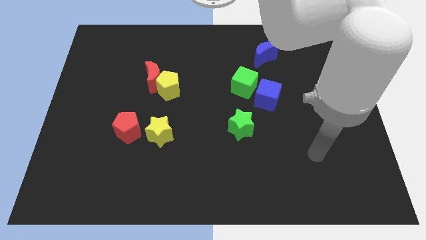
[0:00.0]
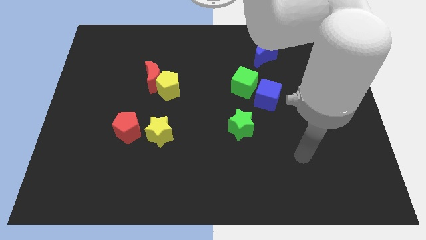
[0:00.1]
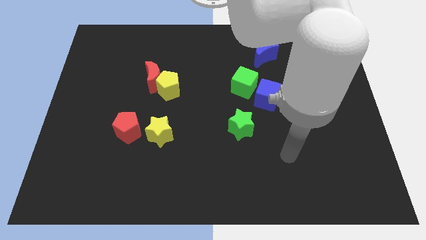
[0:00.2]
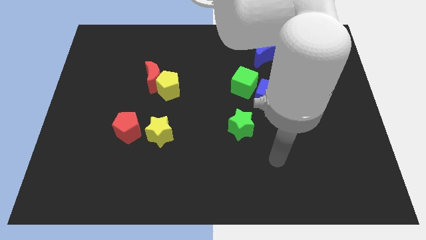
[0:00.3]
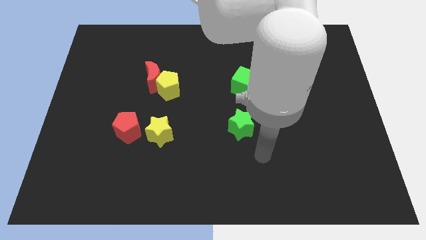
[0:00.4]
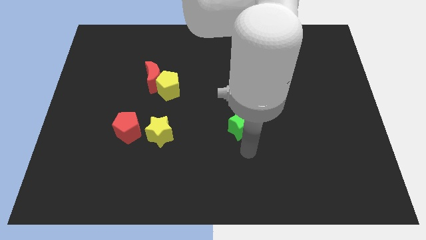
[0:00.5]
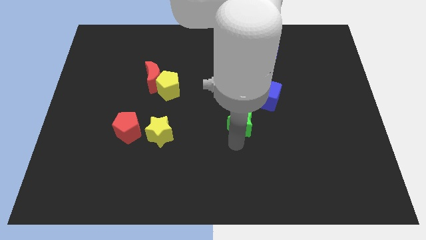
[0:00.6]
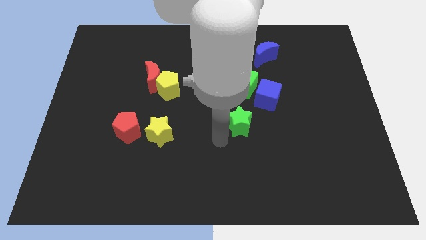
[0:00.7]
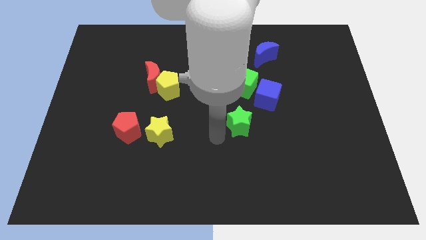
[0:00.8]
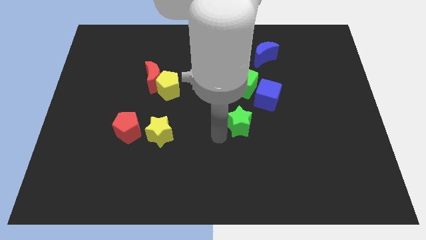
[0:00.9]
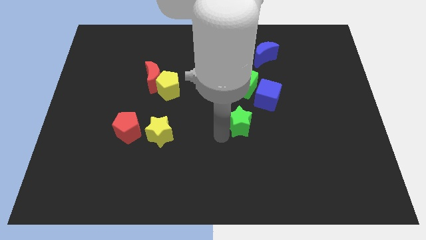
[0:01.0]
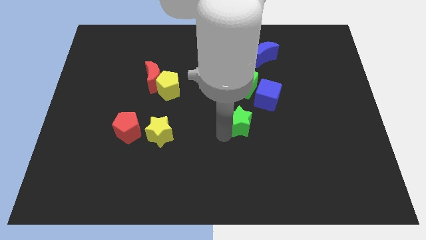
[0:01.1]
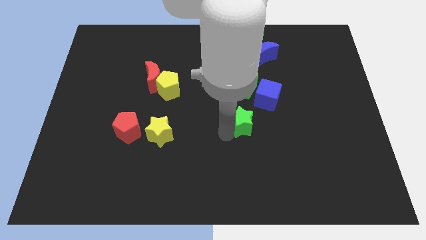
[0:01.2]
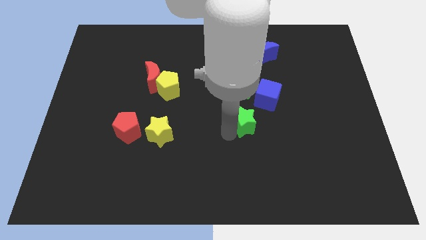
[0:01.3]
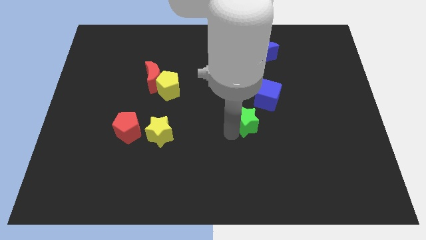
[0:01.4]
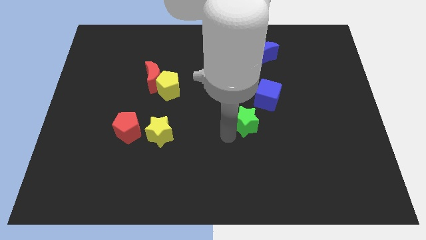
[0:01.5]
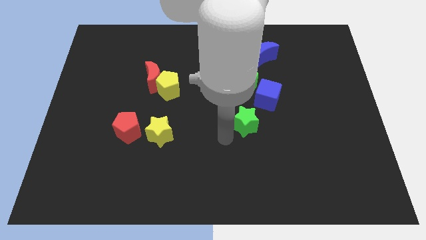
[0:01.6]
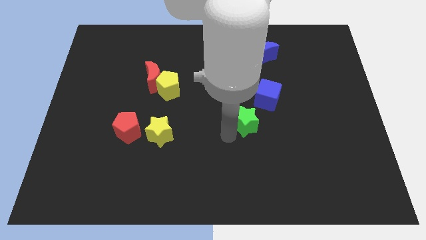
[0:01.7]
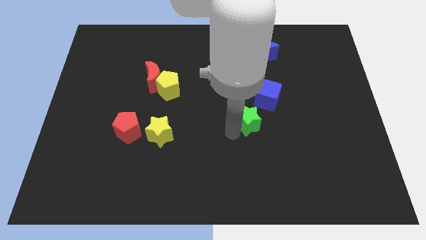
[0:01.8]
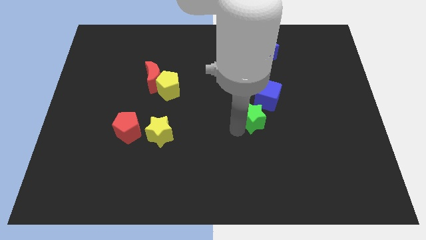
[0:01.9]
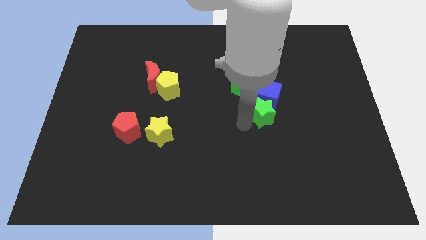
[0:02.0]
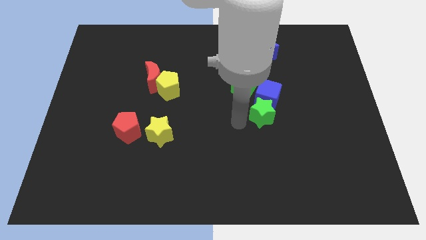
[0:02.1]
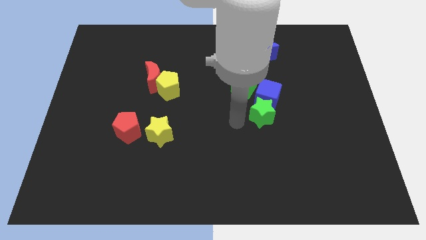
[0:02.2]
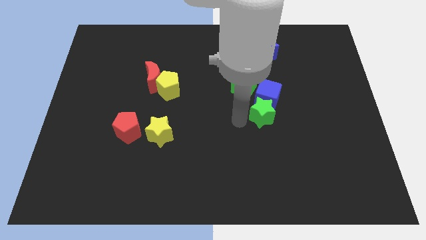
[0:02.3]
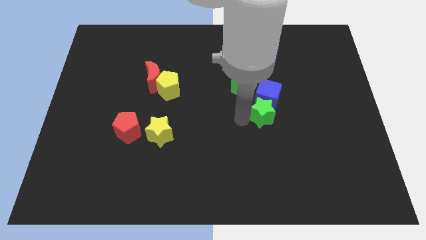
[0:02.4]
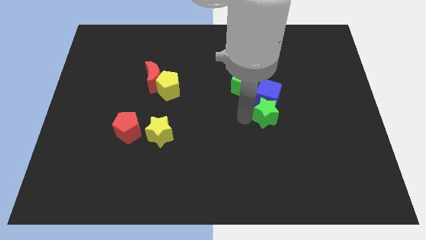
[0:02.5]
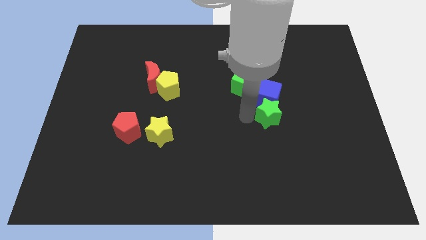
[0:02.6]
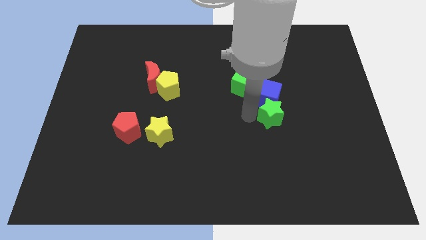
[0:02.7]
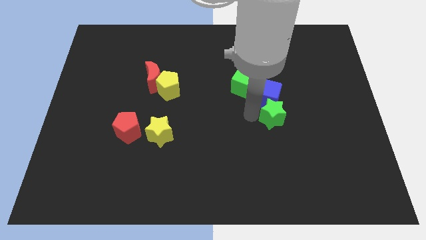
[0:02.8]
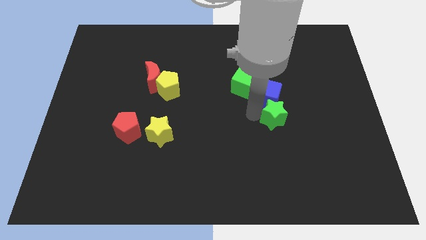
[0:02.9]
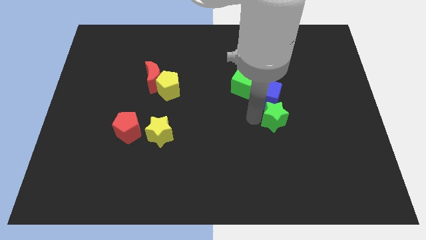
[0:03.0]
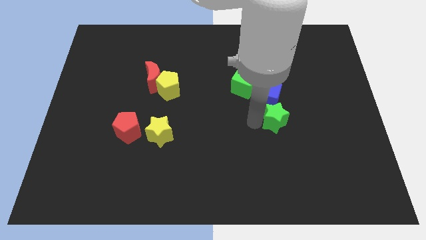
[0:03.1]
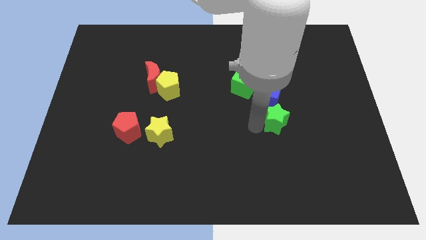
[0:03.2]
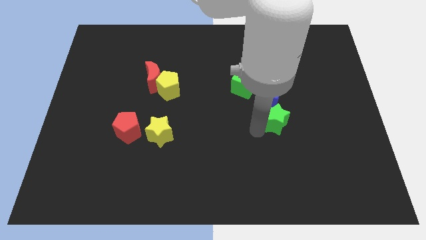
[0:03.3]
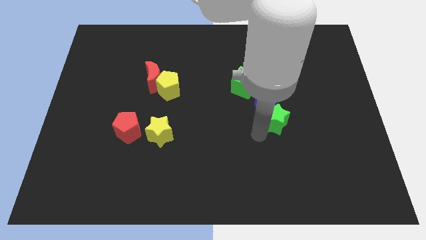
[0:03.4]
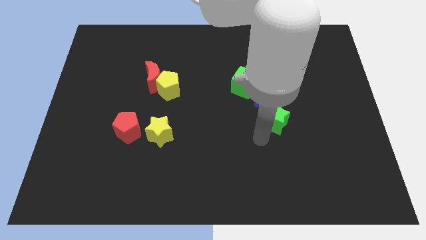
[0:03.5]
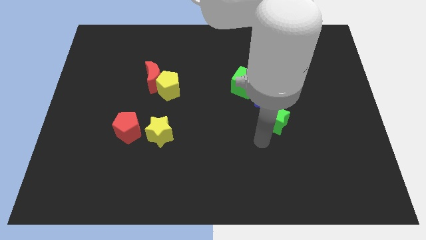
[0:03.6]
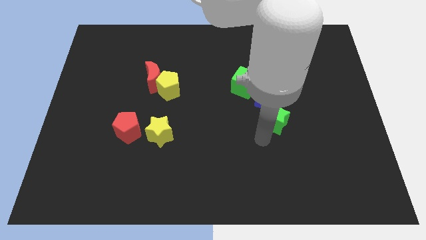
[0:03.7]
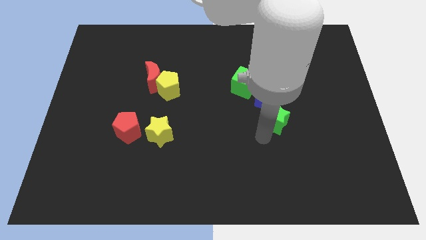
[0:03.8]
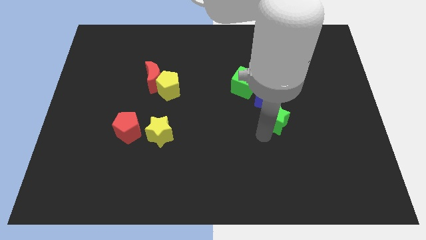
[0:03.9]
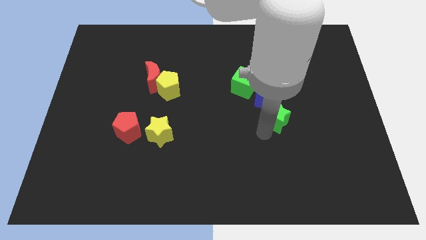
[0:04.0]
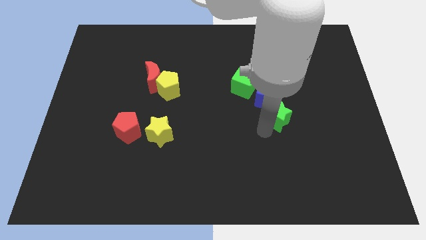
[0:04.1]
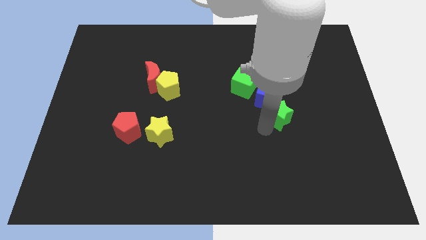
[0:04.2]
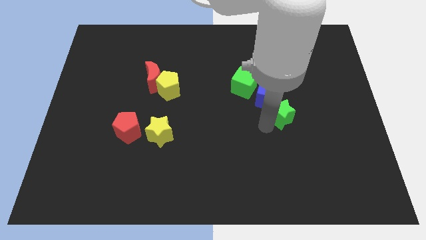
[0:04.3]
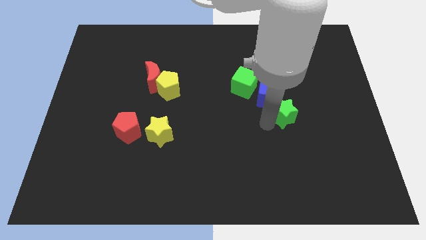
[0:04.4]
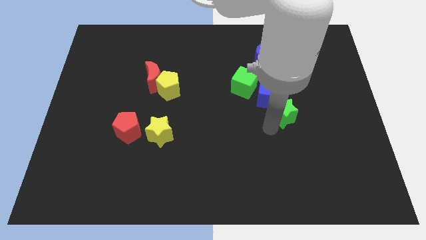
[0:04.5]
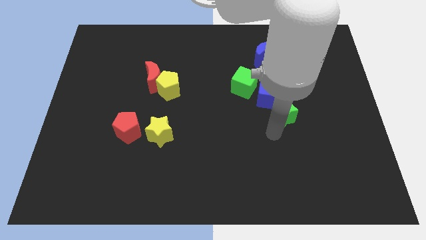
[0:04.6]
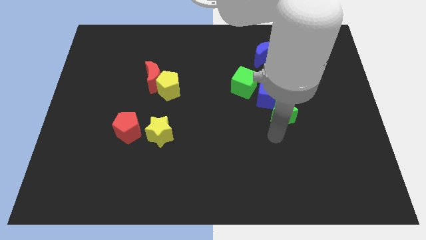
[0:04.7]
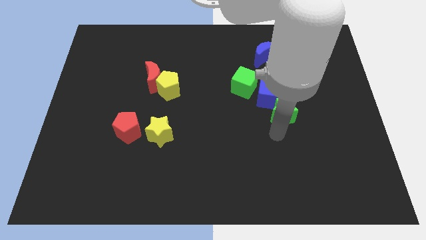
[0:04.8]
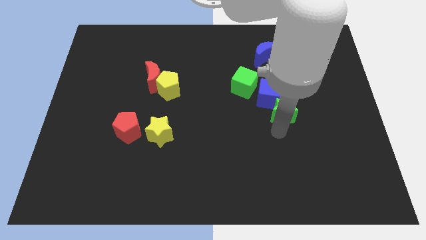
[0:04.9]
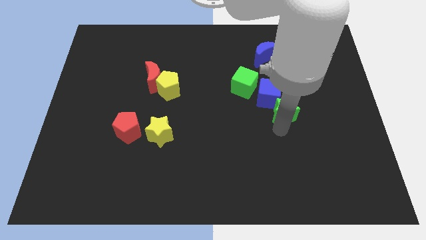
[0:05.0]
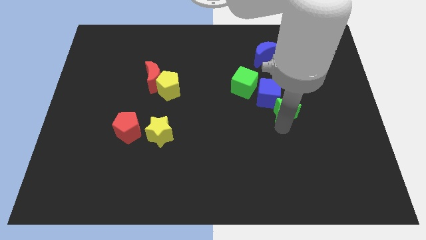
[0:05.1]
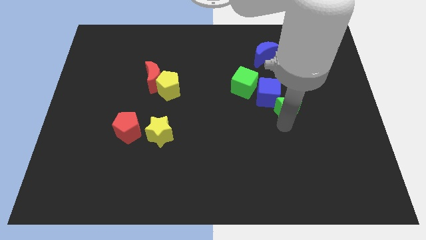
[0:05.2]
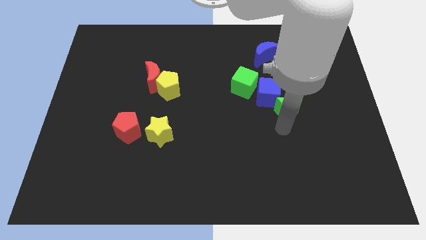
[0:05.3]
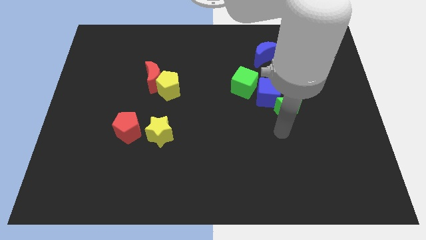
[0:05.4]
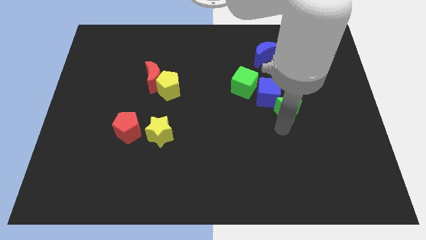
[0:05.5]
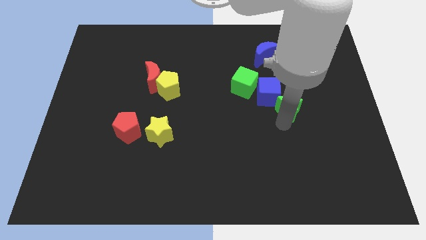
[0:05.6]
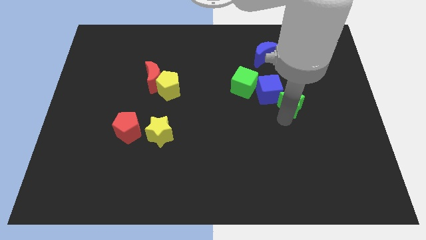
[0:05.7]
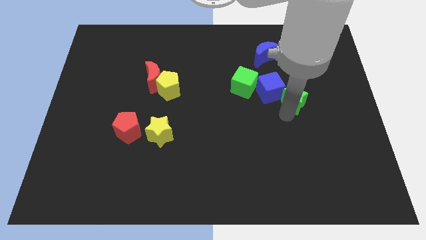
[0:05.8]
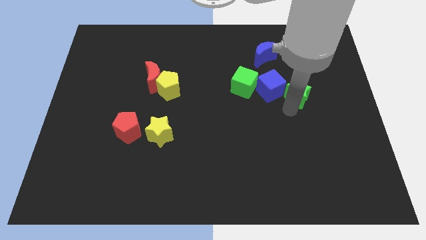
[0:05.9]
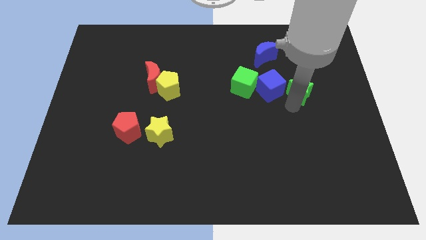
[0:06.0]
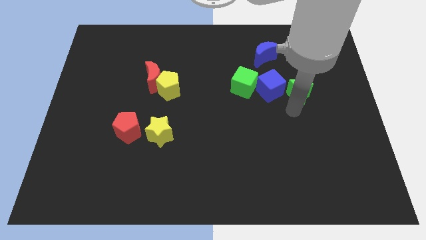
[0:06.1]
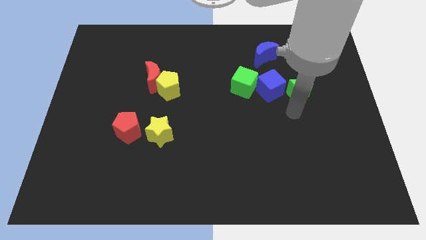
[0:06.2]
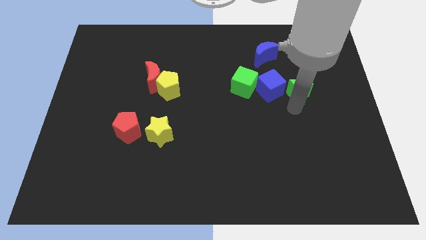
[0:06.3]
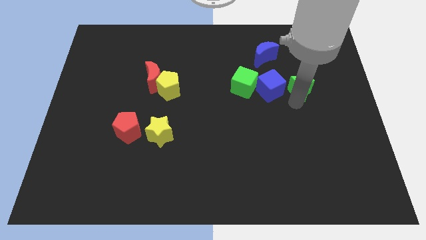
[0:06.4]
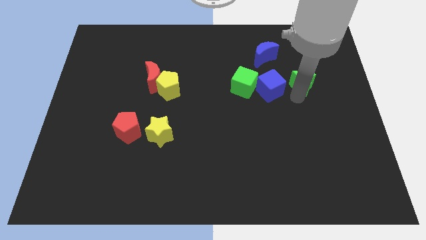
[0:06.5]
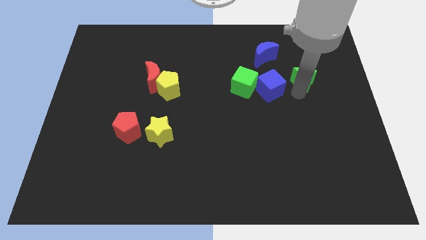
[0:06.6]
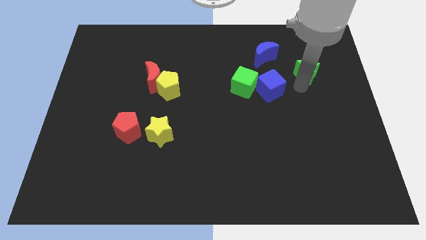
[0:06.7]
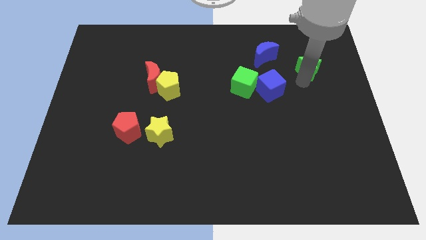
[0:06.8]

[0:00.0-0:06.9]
move the green star just right of the blue moon

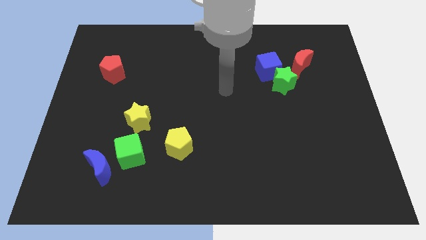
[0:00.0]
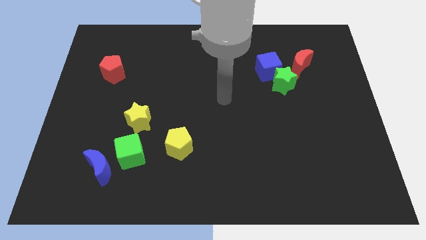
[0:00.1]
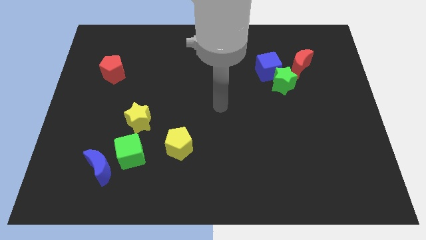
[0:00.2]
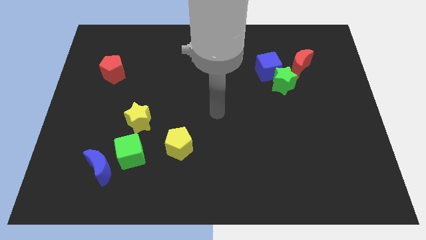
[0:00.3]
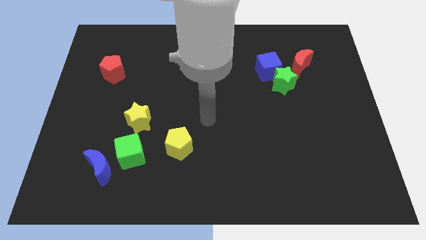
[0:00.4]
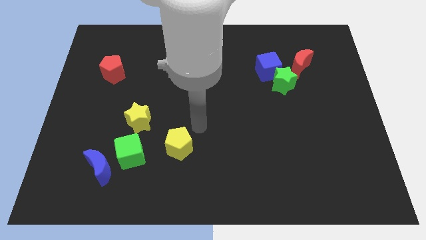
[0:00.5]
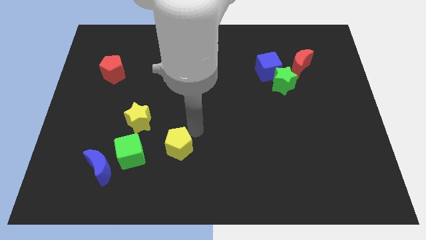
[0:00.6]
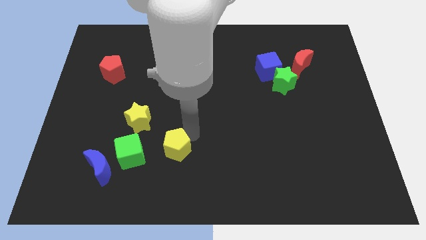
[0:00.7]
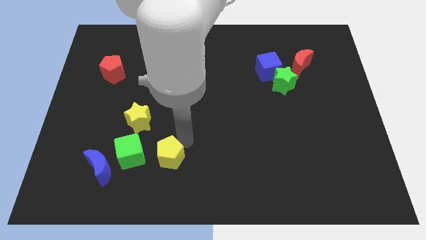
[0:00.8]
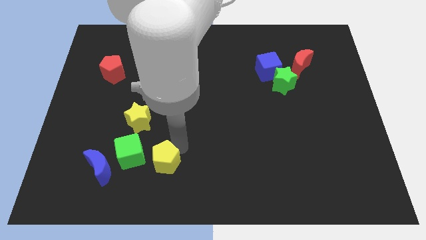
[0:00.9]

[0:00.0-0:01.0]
move the yellow pentagon diagonally down and to the right of the green cube
